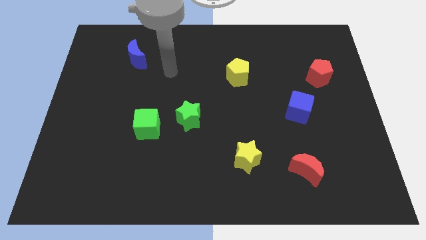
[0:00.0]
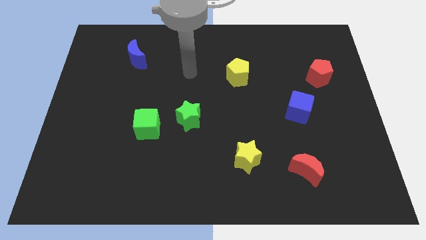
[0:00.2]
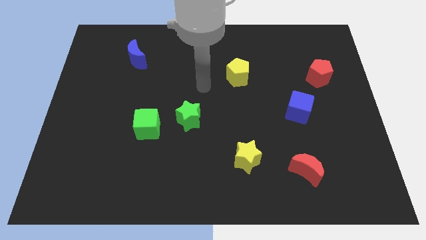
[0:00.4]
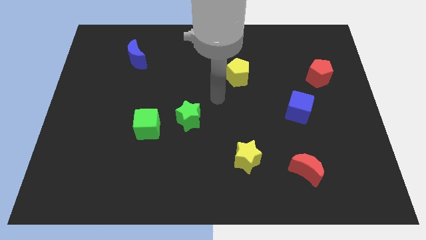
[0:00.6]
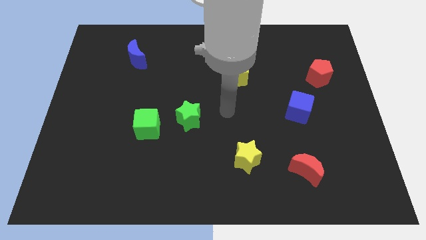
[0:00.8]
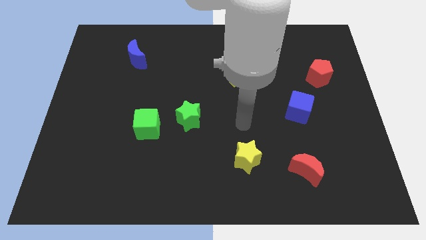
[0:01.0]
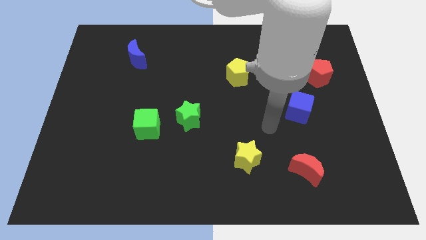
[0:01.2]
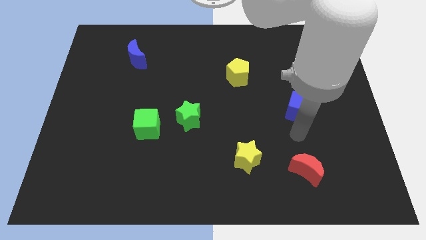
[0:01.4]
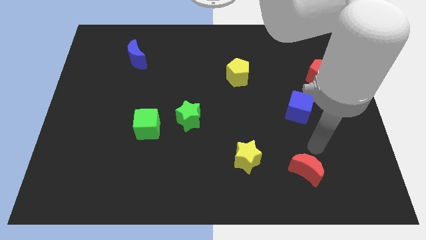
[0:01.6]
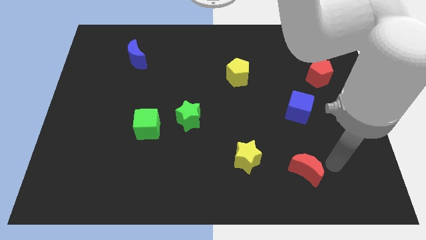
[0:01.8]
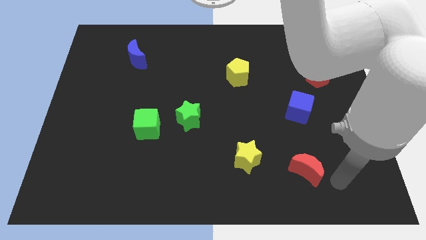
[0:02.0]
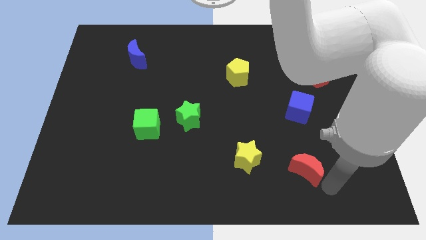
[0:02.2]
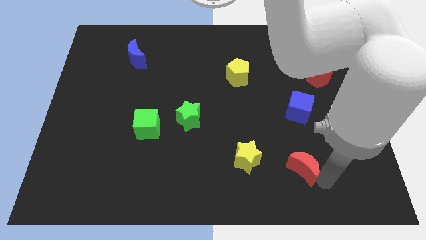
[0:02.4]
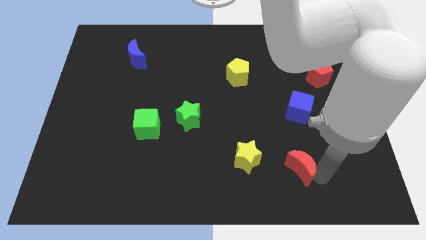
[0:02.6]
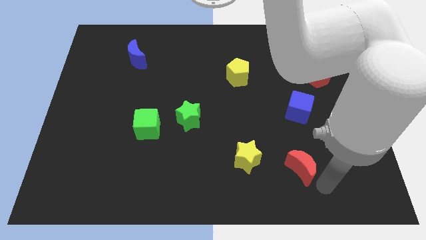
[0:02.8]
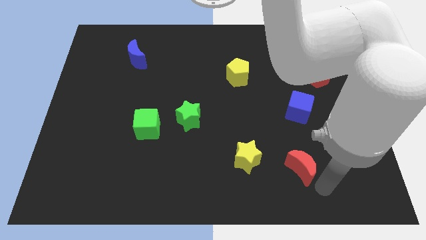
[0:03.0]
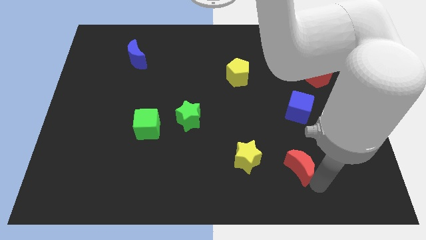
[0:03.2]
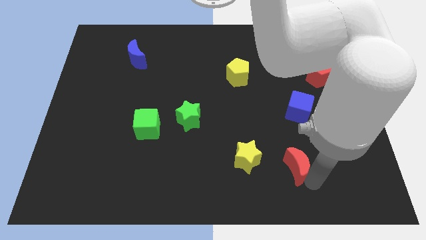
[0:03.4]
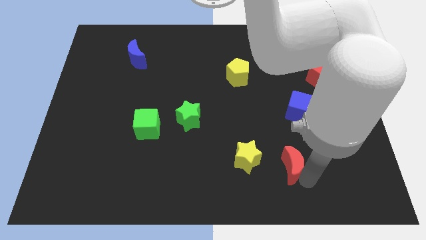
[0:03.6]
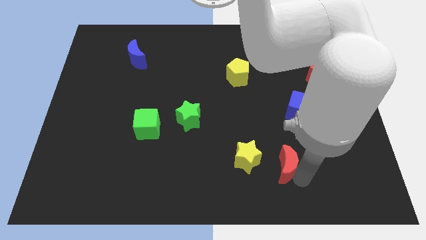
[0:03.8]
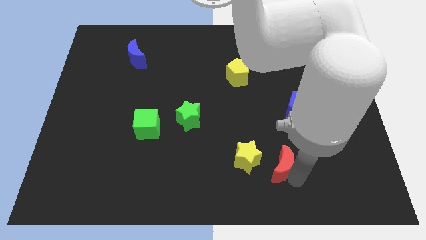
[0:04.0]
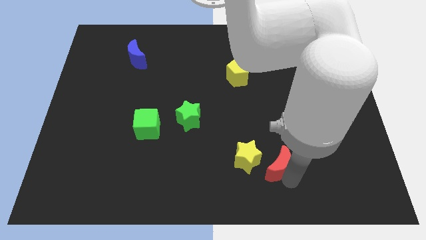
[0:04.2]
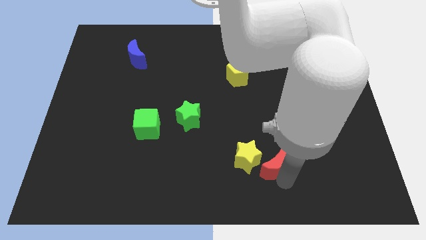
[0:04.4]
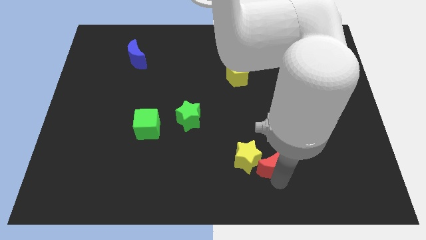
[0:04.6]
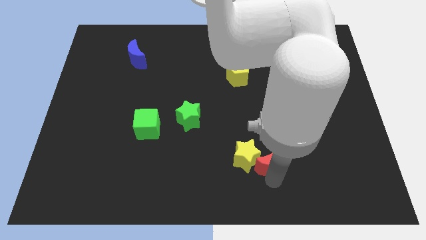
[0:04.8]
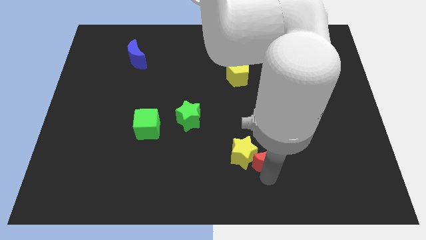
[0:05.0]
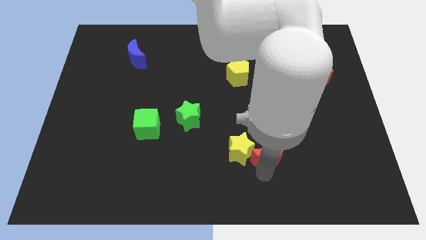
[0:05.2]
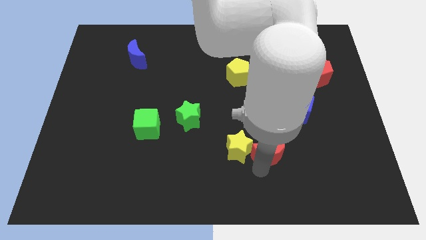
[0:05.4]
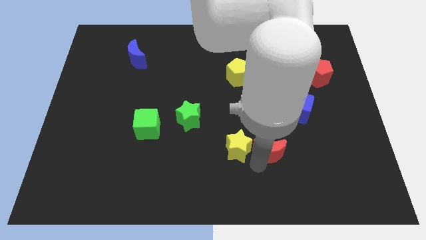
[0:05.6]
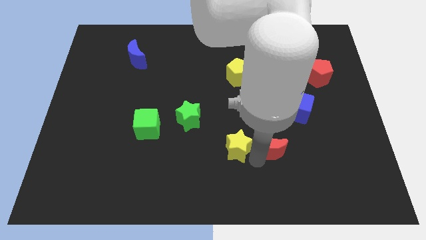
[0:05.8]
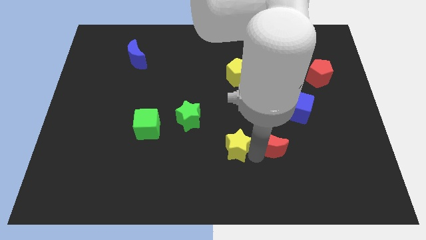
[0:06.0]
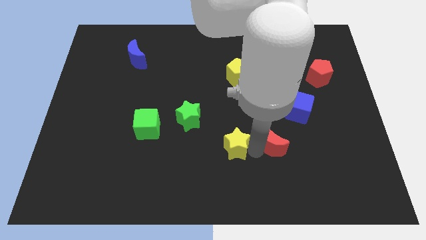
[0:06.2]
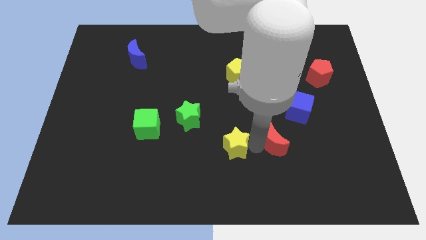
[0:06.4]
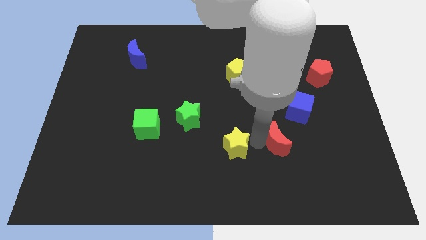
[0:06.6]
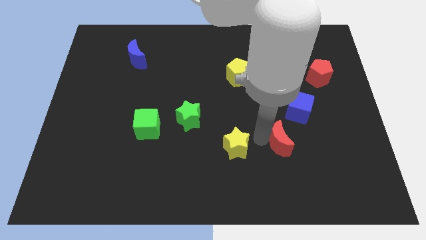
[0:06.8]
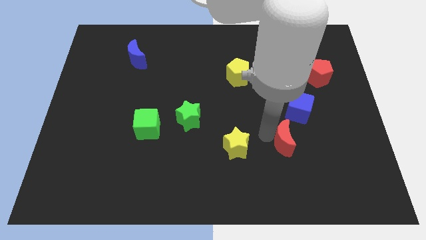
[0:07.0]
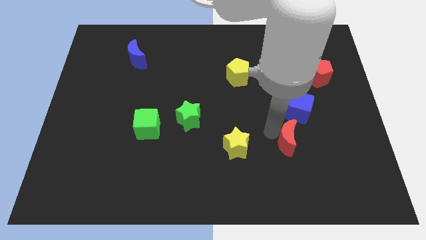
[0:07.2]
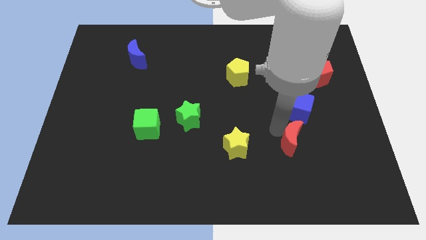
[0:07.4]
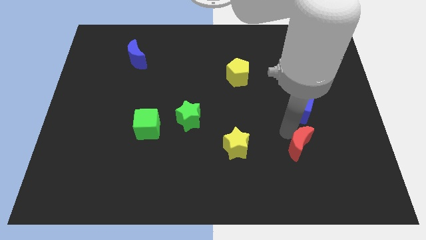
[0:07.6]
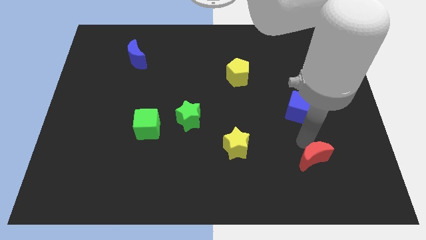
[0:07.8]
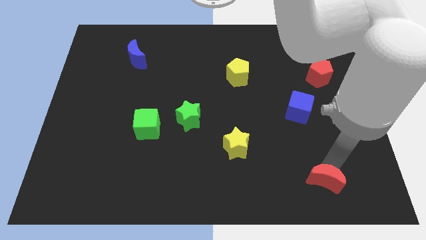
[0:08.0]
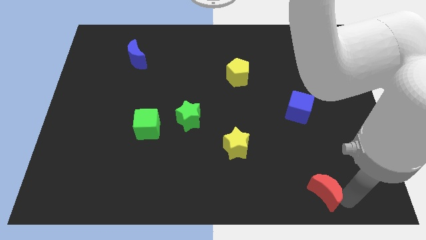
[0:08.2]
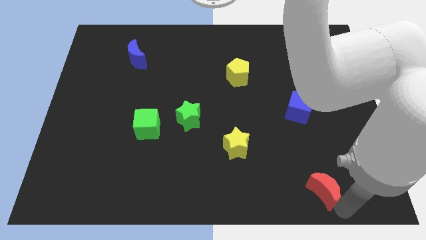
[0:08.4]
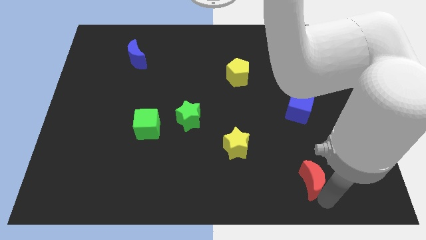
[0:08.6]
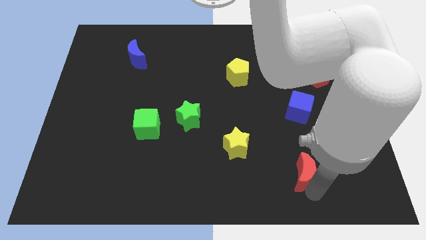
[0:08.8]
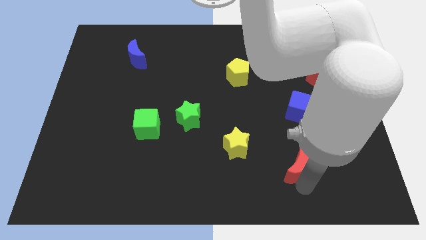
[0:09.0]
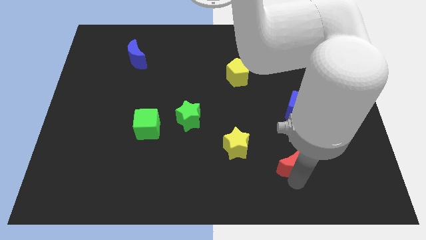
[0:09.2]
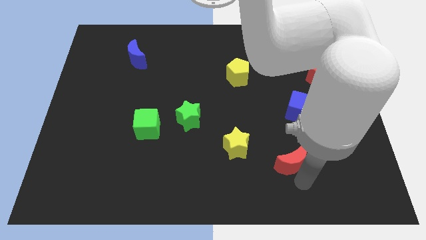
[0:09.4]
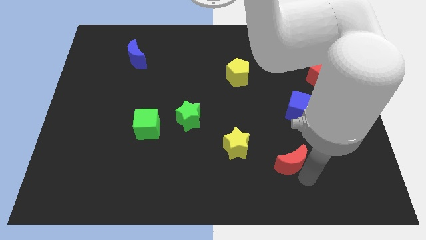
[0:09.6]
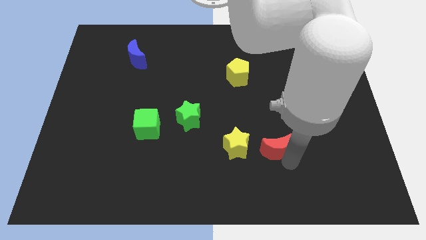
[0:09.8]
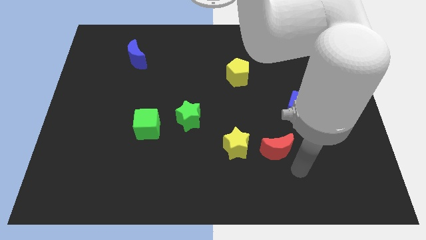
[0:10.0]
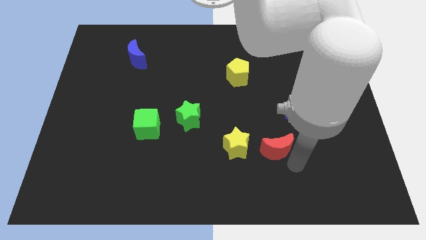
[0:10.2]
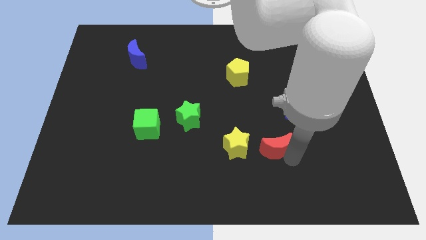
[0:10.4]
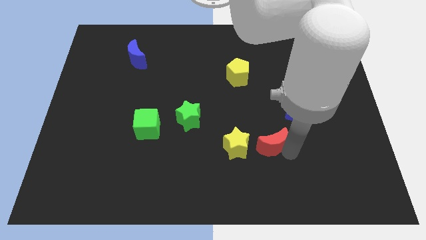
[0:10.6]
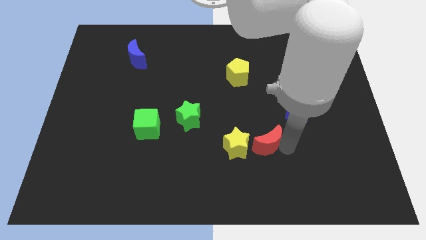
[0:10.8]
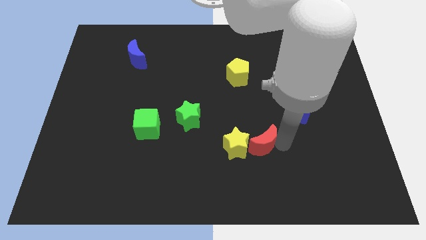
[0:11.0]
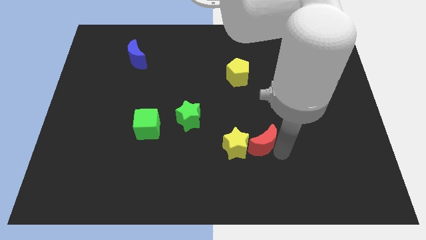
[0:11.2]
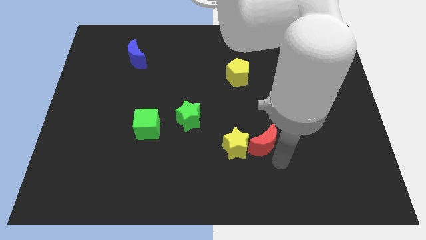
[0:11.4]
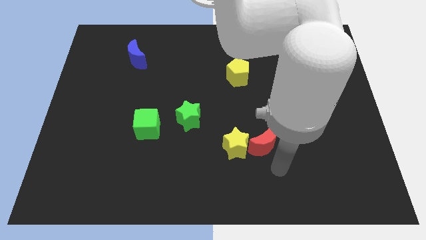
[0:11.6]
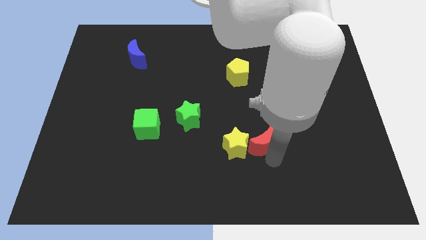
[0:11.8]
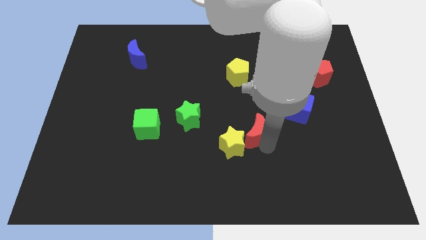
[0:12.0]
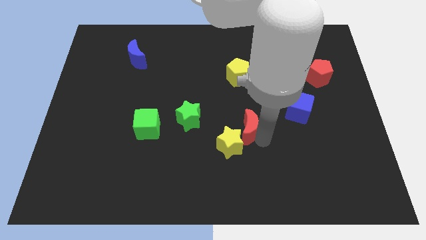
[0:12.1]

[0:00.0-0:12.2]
move the red moon to the center
